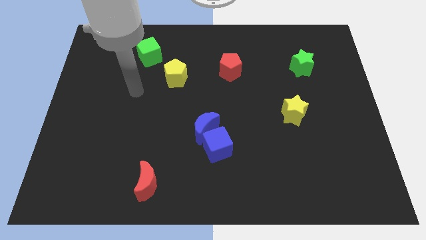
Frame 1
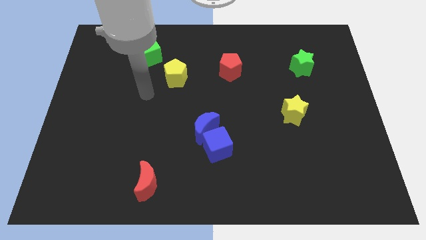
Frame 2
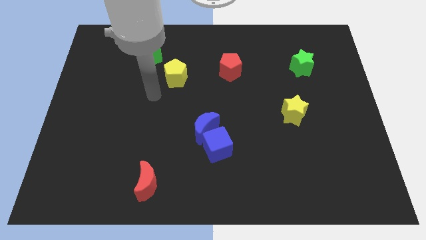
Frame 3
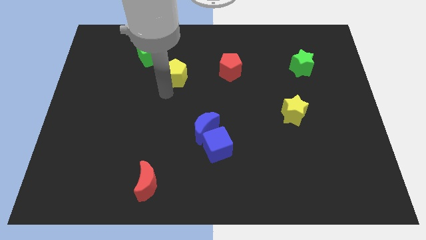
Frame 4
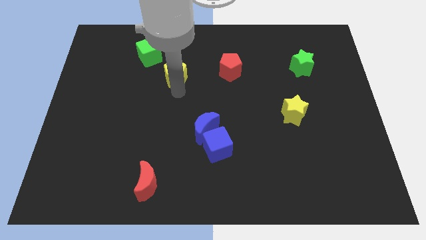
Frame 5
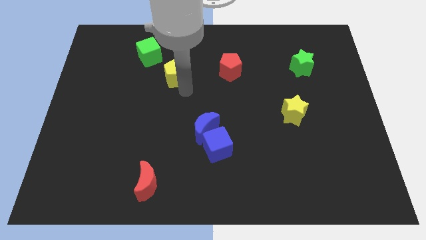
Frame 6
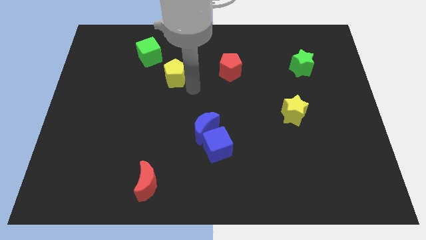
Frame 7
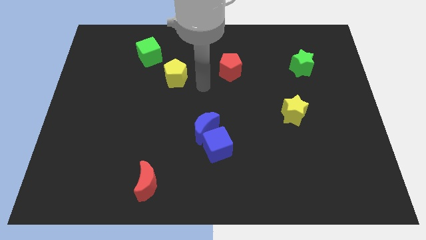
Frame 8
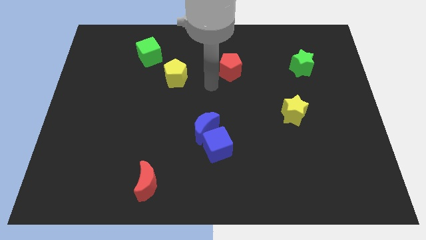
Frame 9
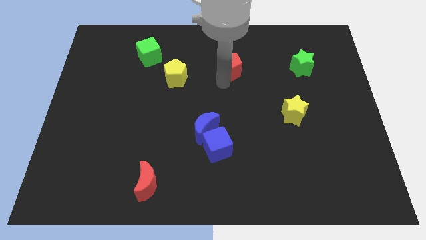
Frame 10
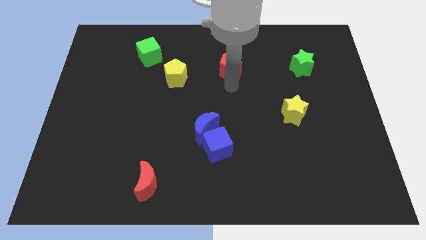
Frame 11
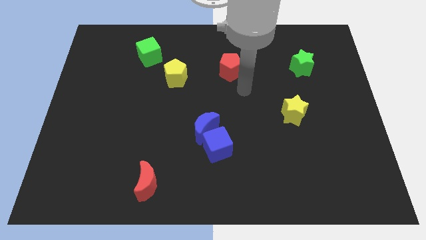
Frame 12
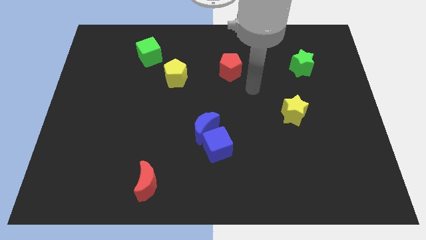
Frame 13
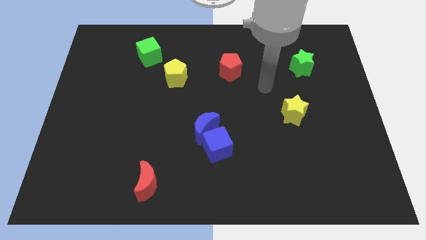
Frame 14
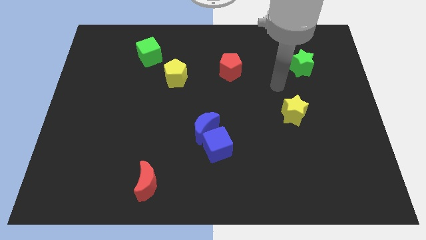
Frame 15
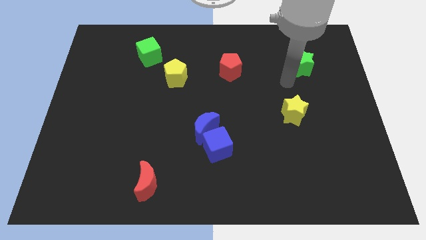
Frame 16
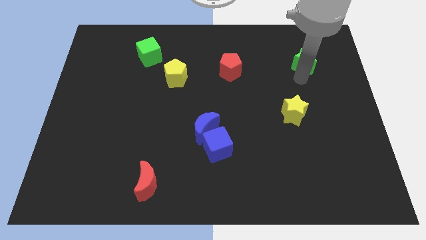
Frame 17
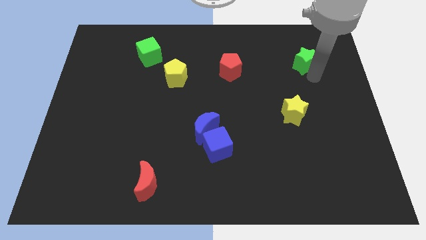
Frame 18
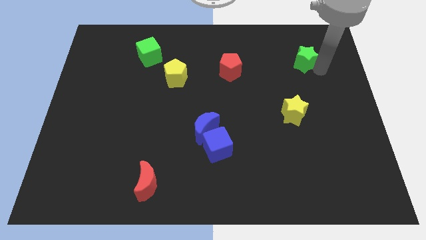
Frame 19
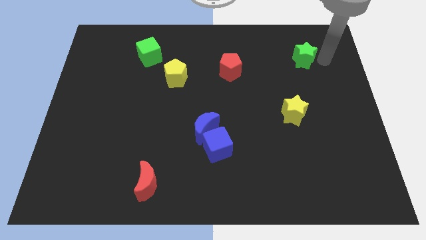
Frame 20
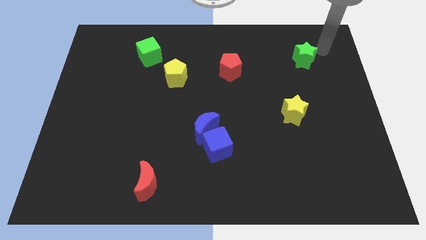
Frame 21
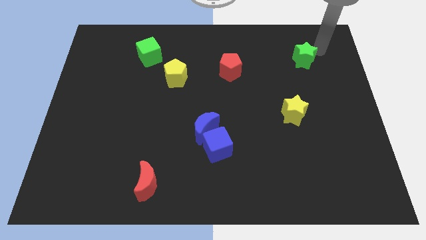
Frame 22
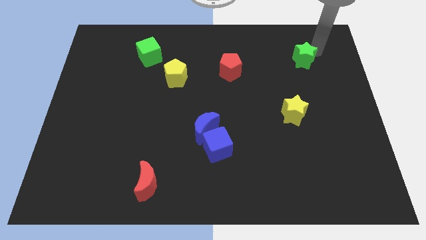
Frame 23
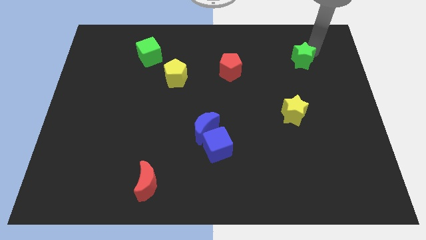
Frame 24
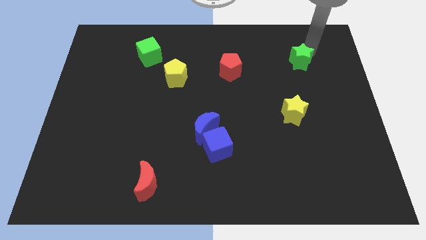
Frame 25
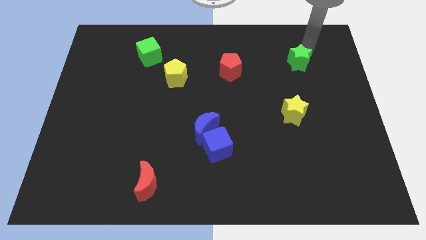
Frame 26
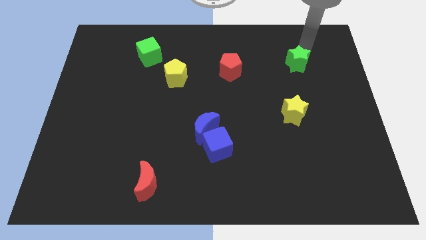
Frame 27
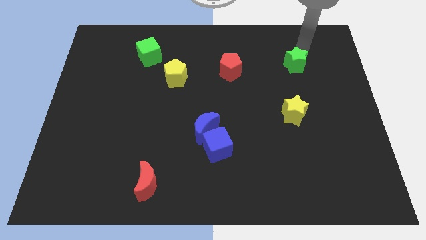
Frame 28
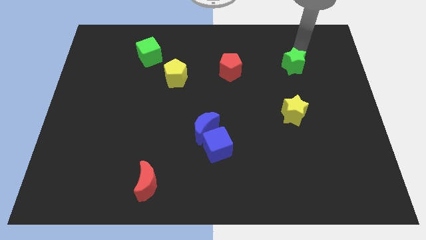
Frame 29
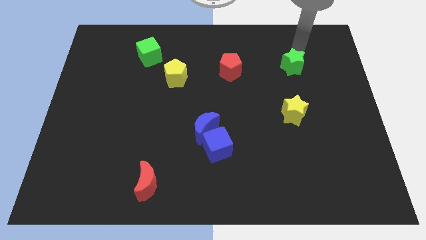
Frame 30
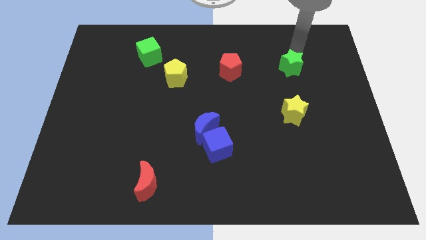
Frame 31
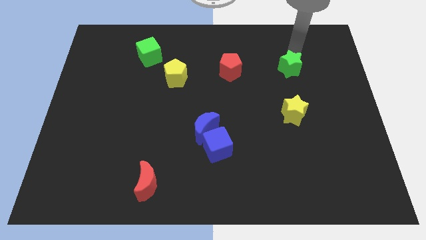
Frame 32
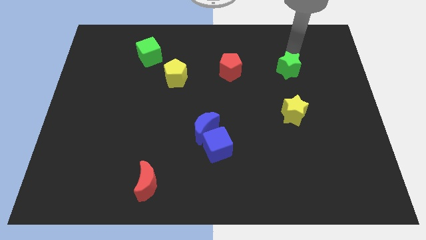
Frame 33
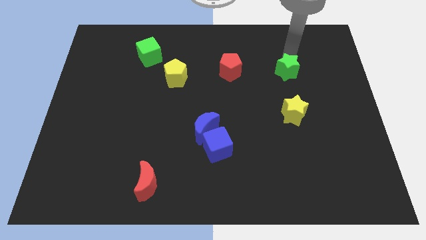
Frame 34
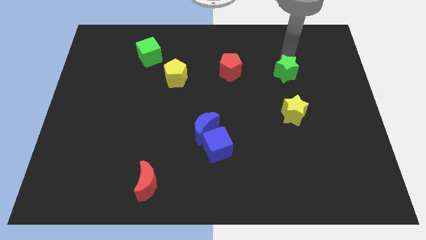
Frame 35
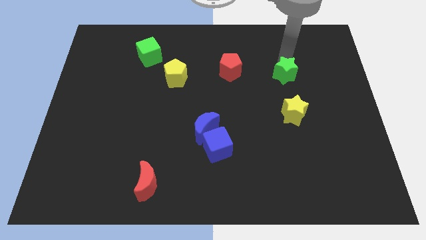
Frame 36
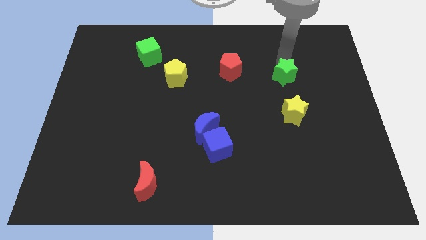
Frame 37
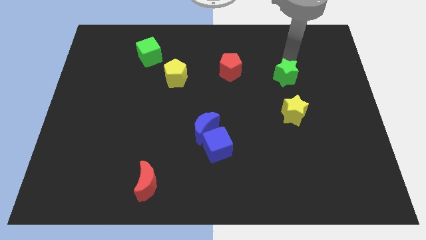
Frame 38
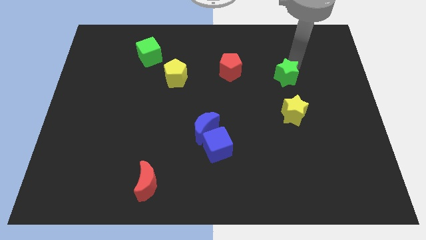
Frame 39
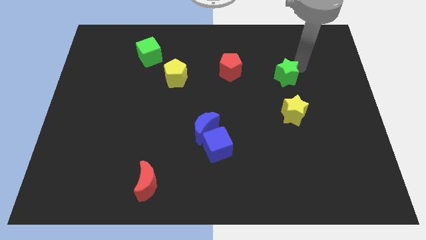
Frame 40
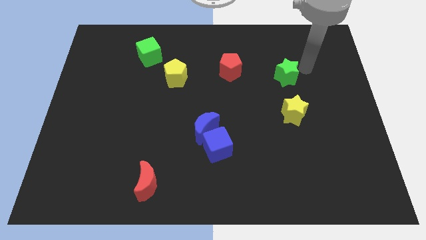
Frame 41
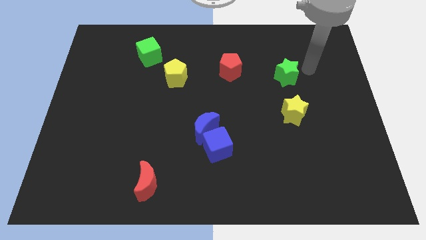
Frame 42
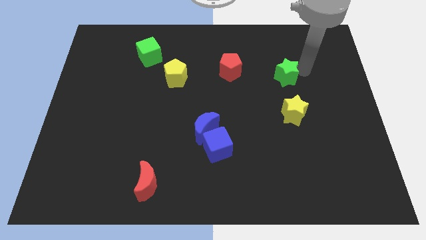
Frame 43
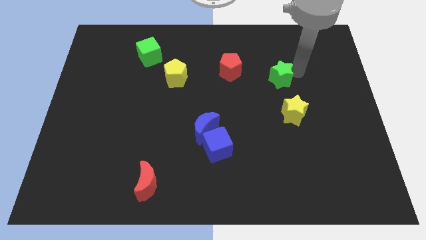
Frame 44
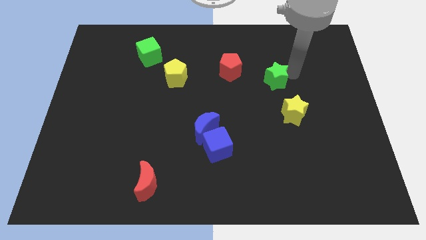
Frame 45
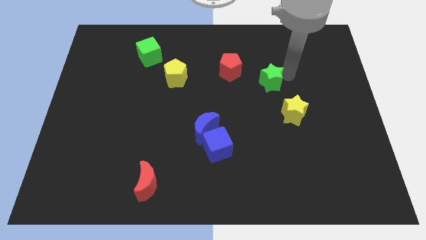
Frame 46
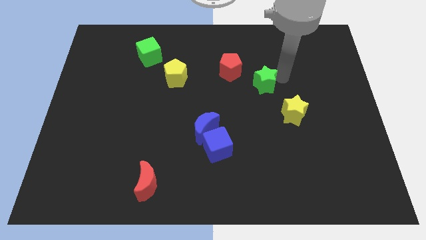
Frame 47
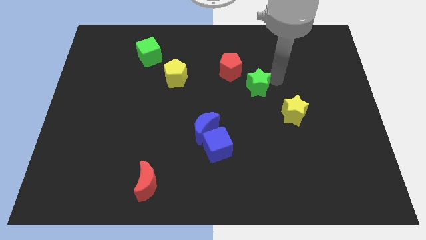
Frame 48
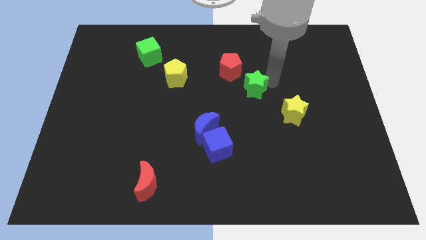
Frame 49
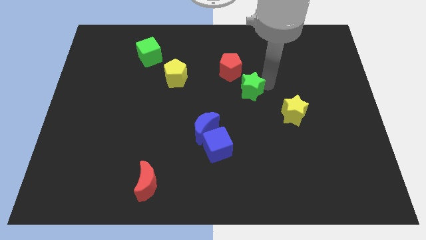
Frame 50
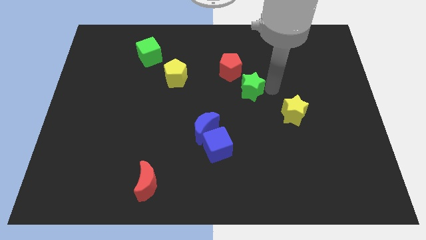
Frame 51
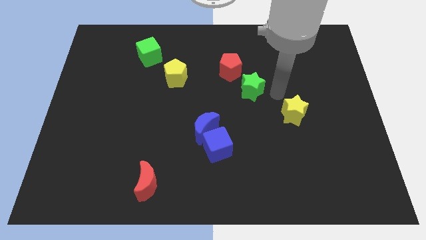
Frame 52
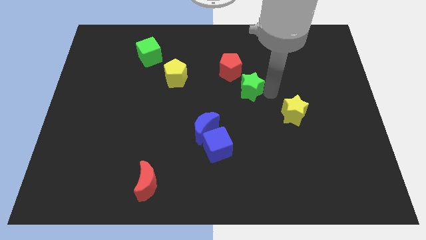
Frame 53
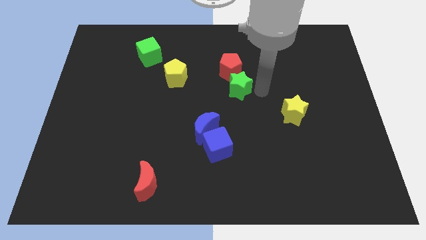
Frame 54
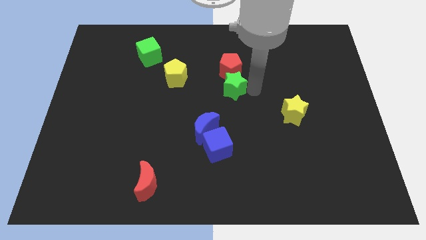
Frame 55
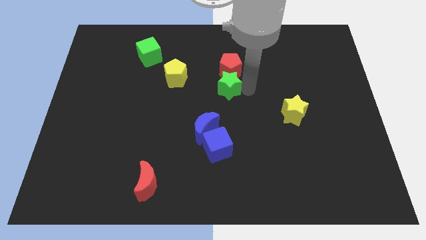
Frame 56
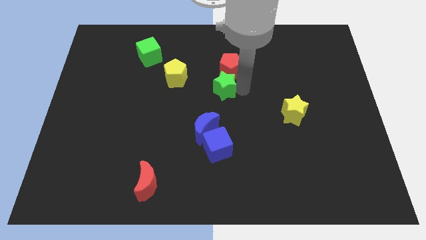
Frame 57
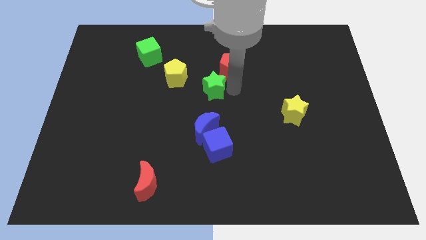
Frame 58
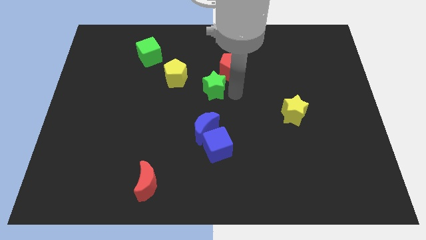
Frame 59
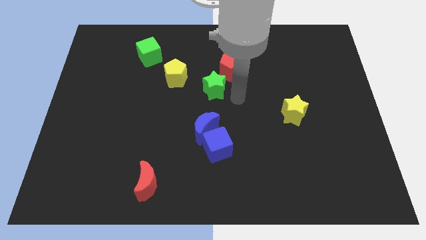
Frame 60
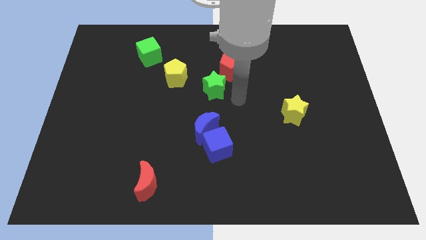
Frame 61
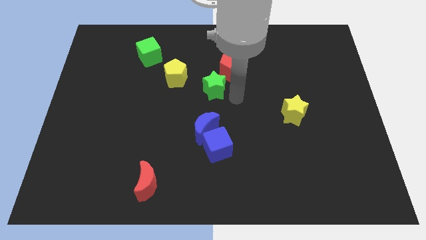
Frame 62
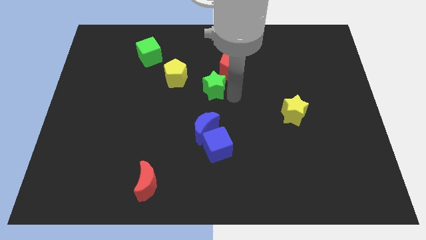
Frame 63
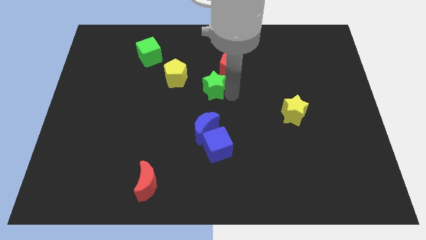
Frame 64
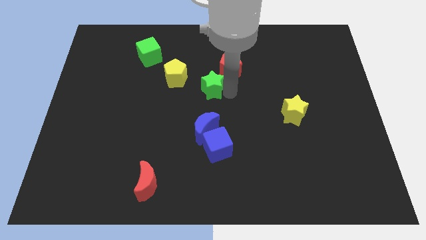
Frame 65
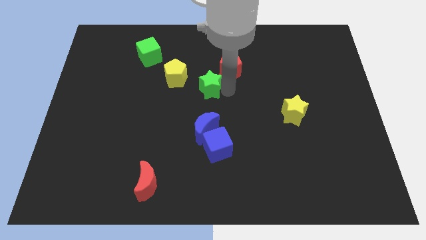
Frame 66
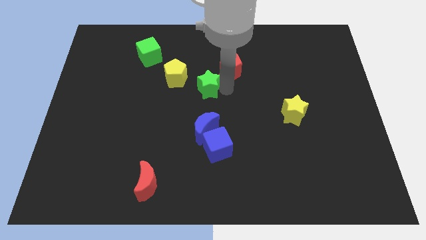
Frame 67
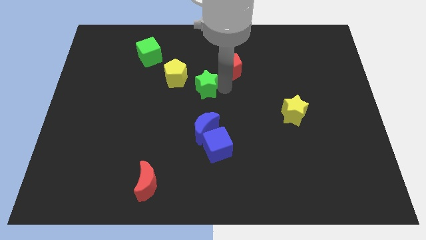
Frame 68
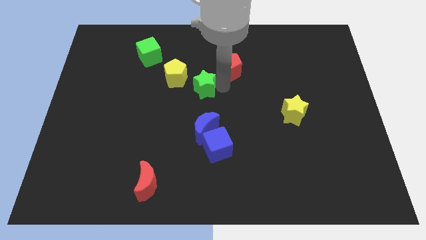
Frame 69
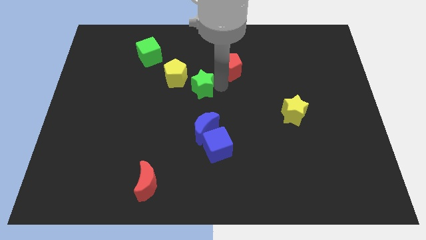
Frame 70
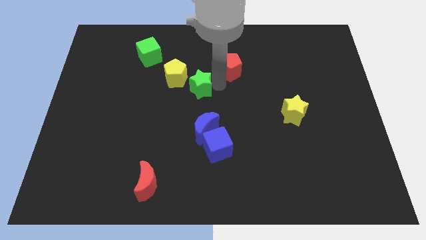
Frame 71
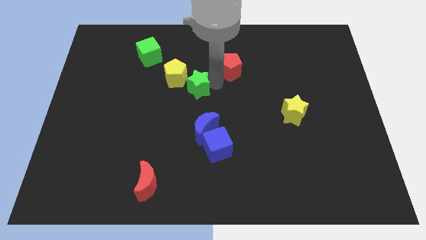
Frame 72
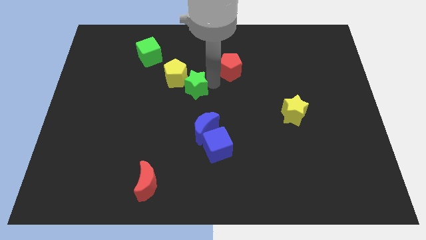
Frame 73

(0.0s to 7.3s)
move the green star close to the yellow pentagon
